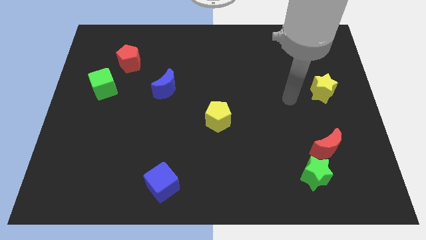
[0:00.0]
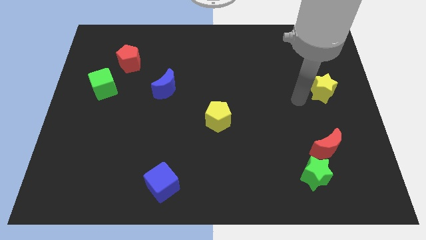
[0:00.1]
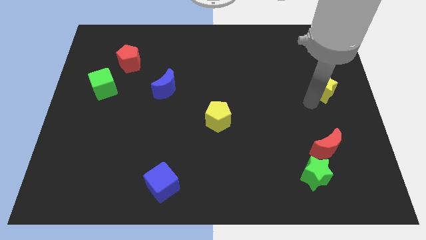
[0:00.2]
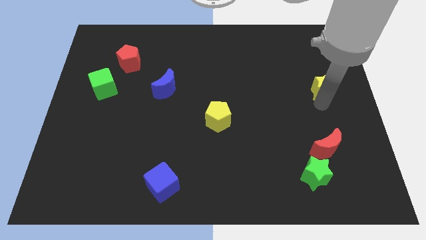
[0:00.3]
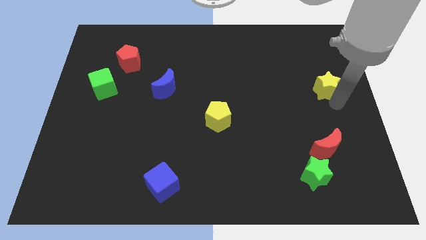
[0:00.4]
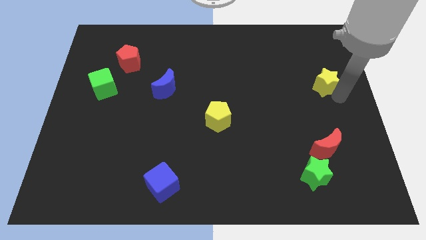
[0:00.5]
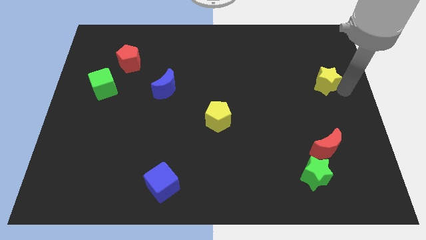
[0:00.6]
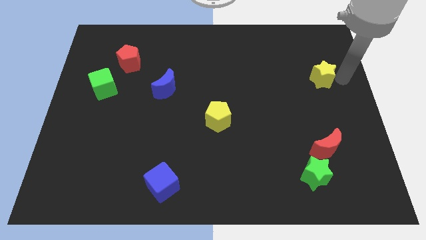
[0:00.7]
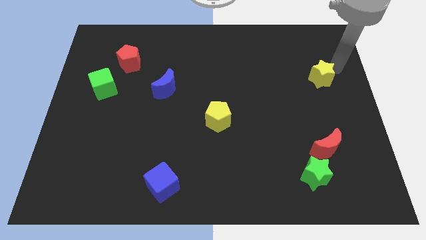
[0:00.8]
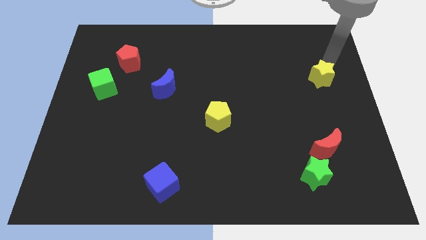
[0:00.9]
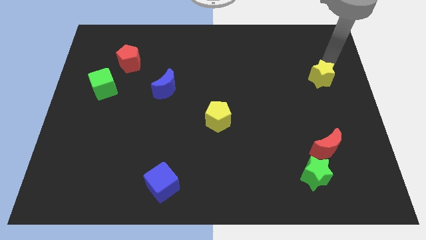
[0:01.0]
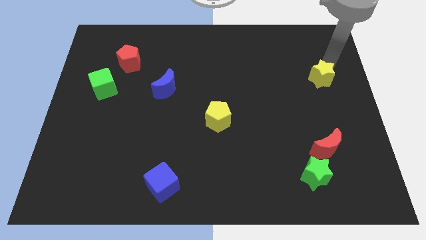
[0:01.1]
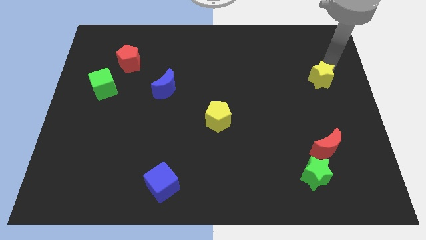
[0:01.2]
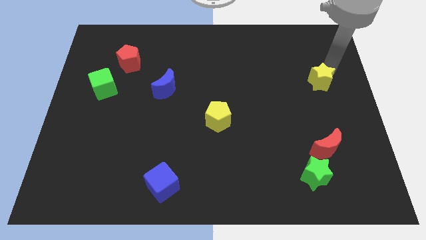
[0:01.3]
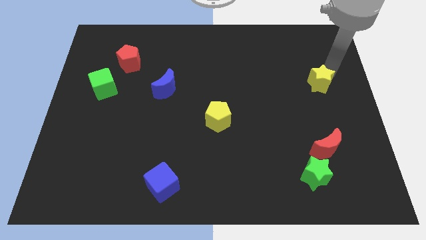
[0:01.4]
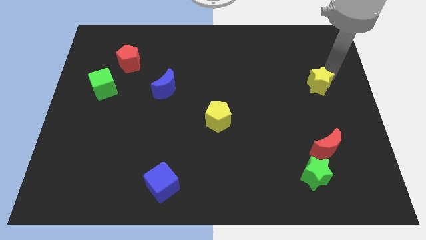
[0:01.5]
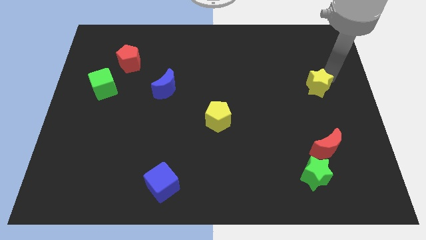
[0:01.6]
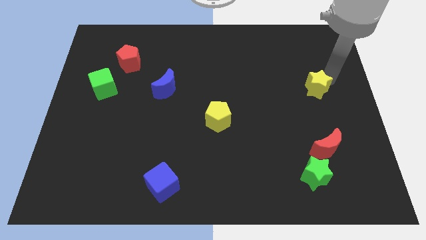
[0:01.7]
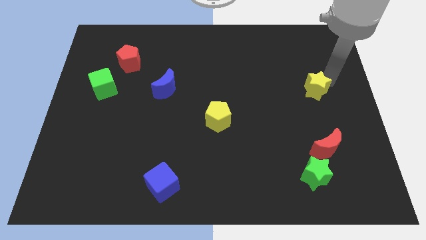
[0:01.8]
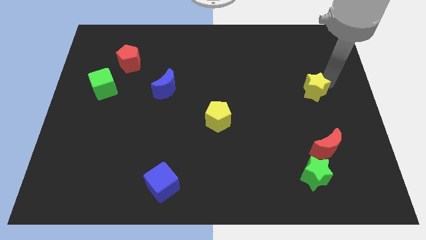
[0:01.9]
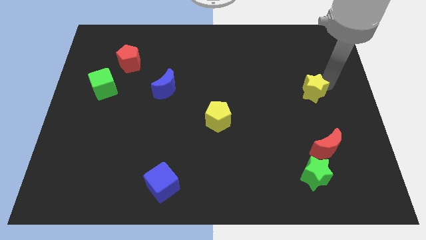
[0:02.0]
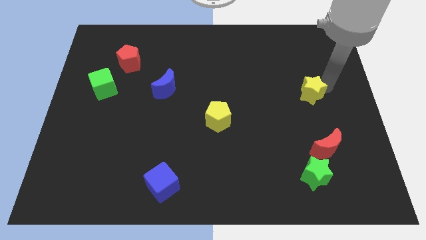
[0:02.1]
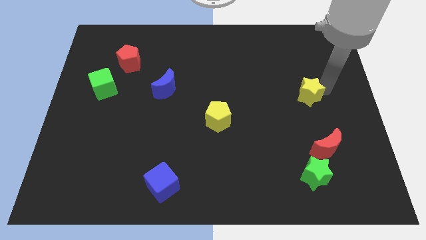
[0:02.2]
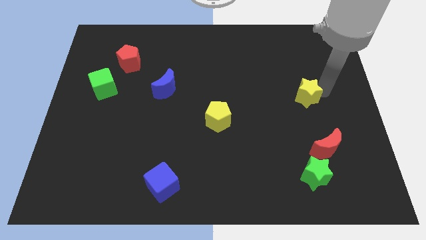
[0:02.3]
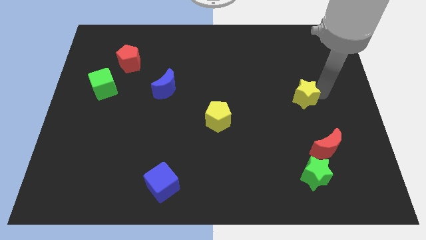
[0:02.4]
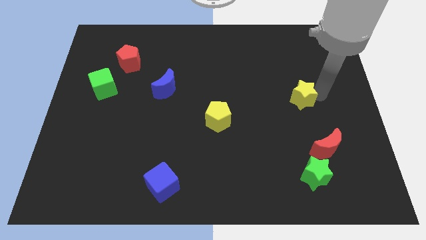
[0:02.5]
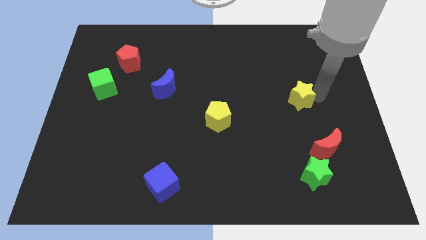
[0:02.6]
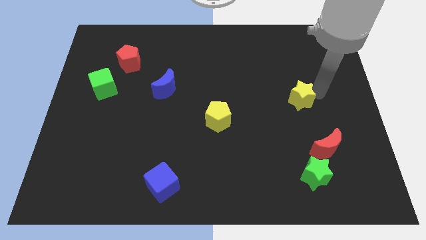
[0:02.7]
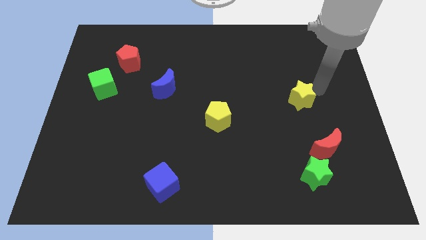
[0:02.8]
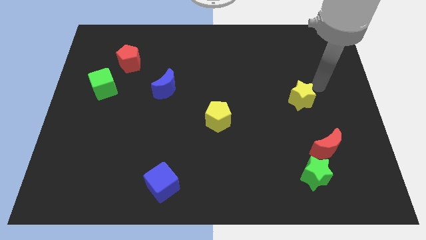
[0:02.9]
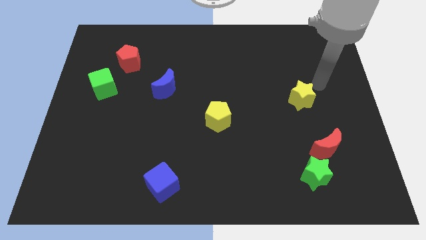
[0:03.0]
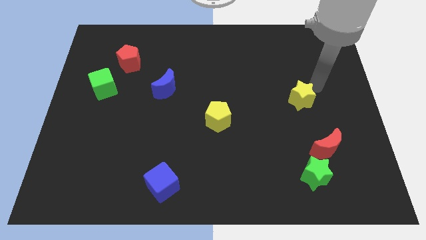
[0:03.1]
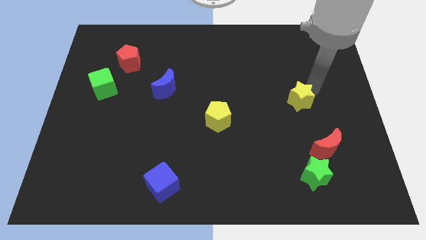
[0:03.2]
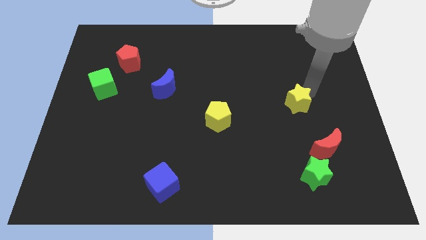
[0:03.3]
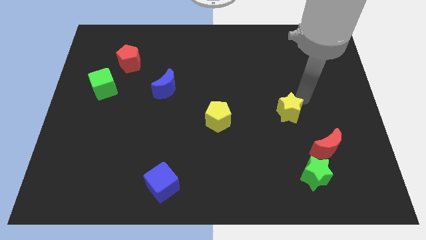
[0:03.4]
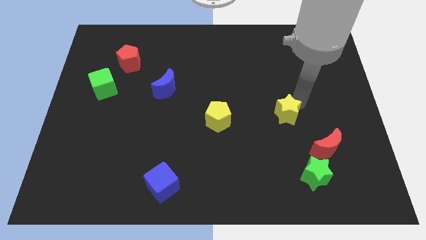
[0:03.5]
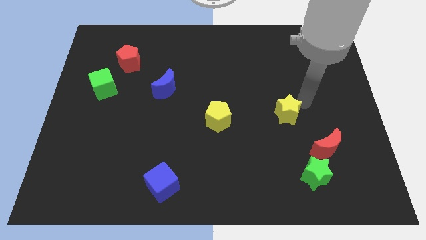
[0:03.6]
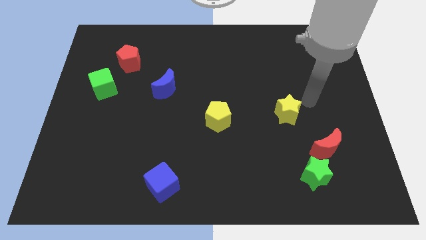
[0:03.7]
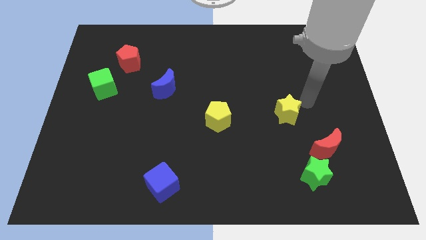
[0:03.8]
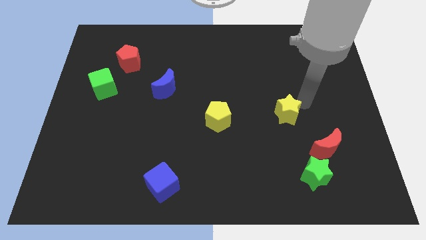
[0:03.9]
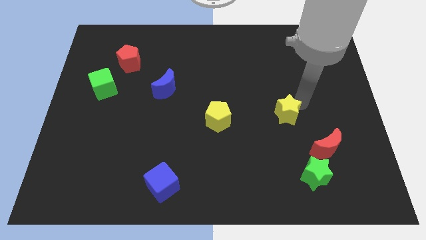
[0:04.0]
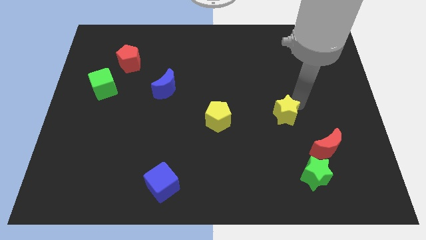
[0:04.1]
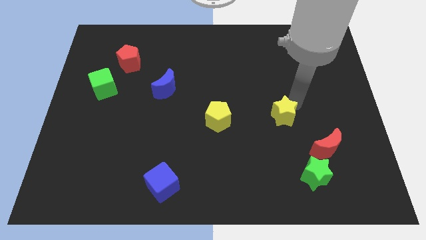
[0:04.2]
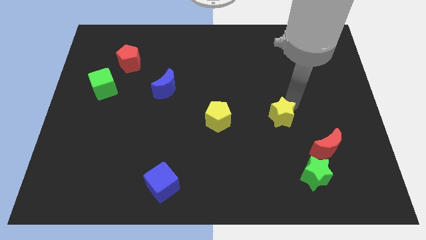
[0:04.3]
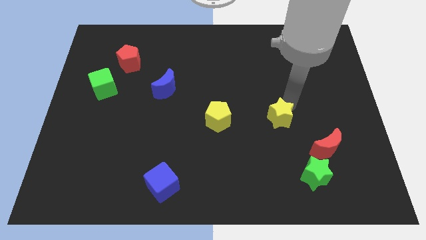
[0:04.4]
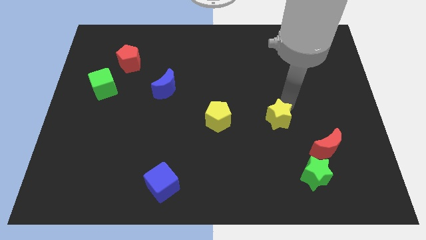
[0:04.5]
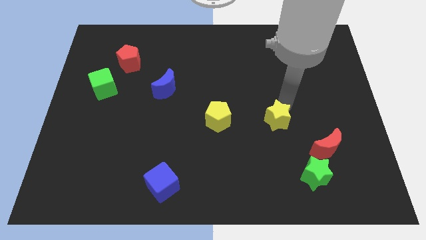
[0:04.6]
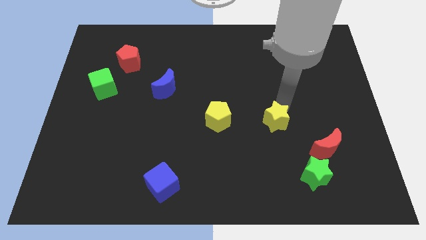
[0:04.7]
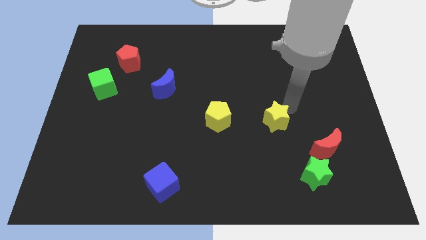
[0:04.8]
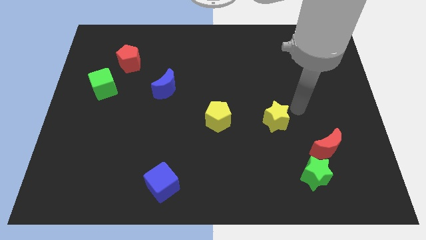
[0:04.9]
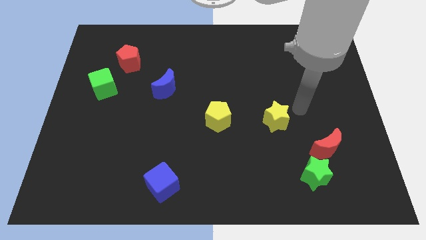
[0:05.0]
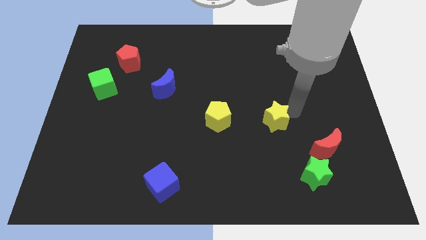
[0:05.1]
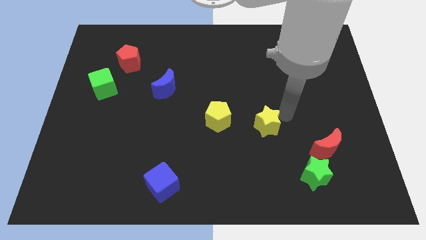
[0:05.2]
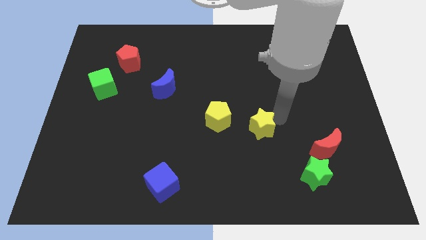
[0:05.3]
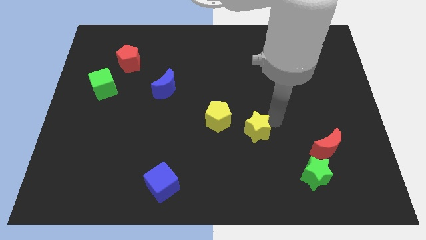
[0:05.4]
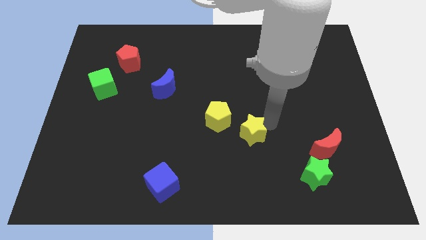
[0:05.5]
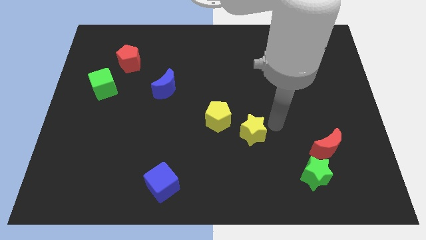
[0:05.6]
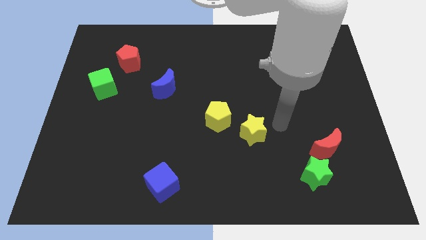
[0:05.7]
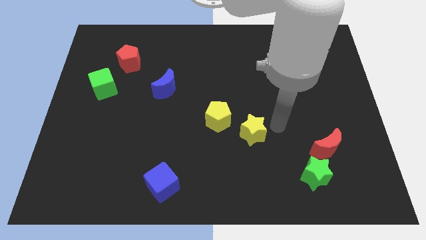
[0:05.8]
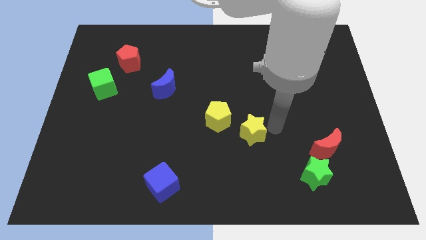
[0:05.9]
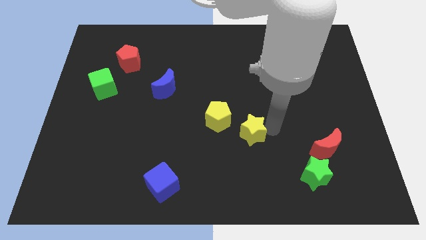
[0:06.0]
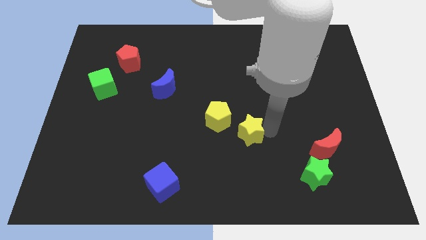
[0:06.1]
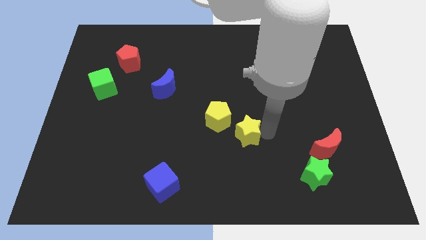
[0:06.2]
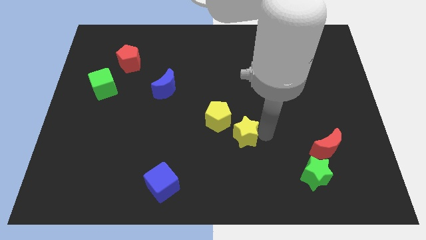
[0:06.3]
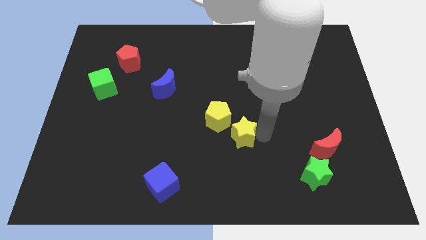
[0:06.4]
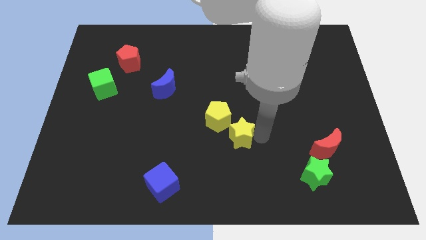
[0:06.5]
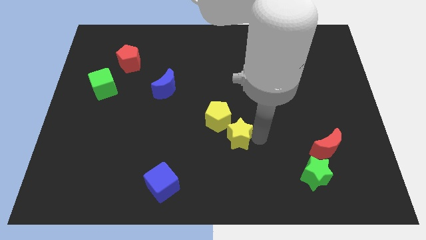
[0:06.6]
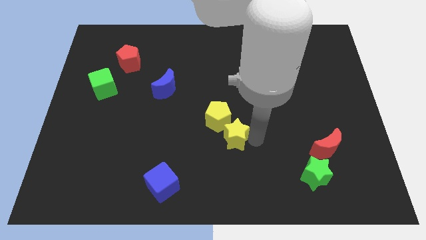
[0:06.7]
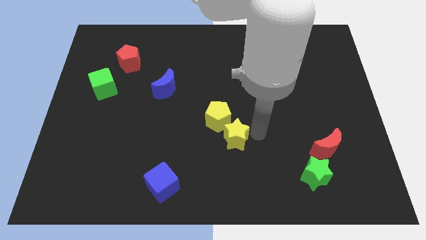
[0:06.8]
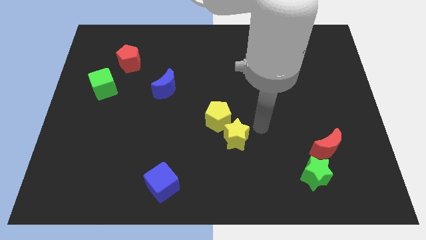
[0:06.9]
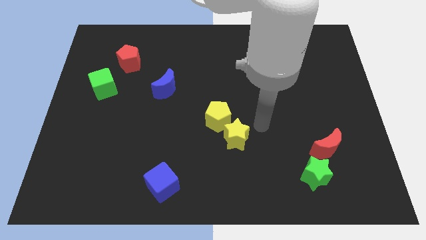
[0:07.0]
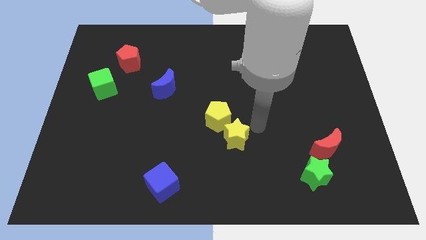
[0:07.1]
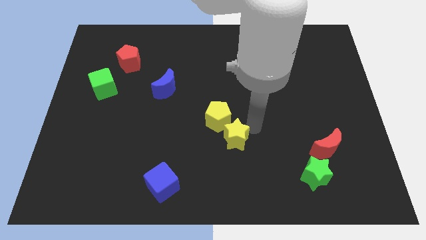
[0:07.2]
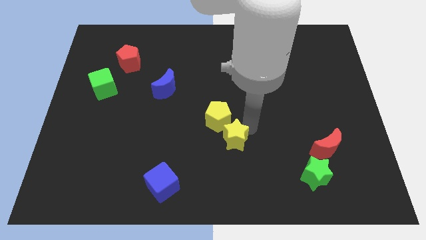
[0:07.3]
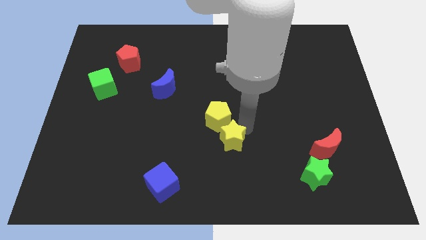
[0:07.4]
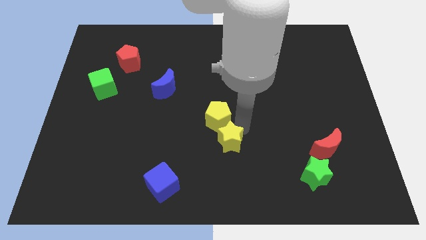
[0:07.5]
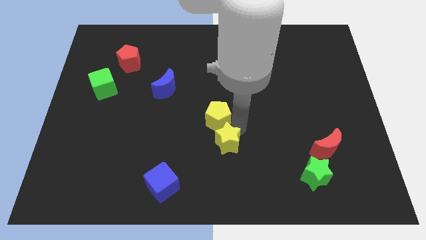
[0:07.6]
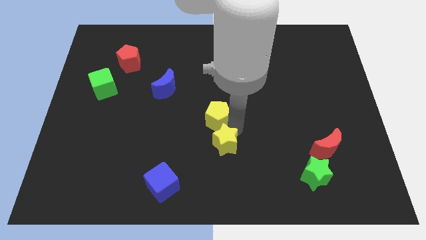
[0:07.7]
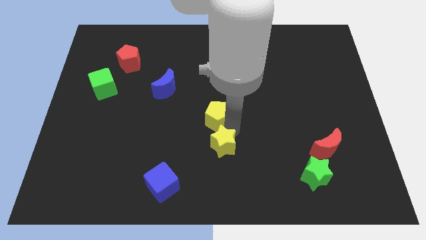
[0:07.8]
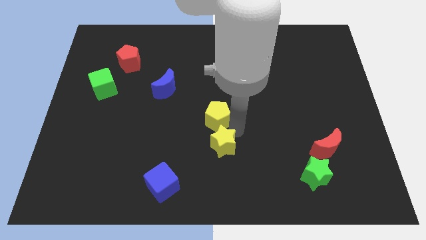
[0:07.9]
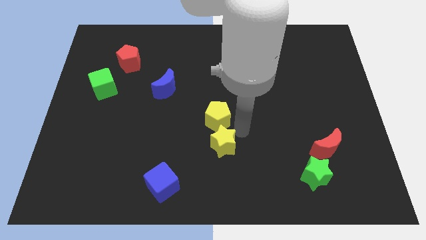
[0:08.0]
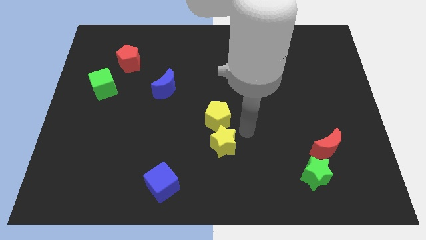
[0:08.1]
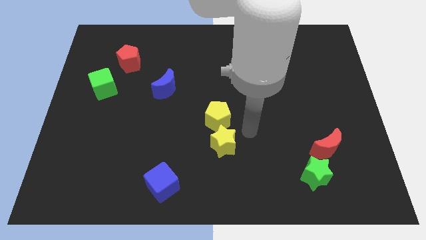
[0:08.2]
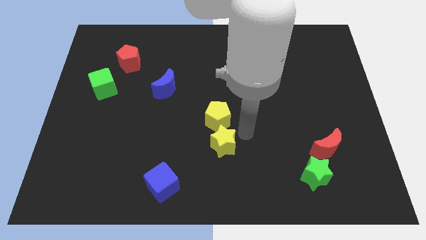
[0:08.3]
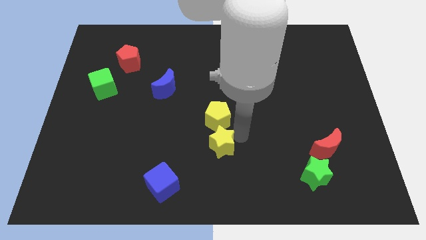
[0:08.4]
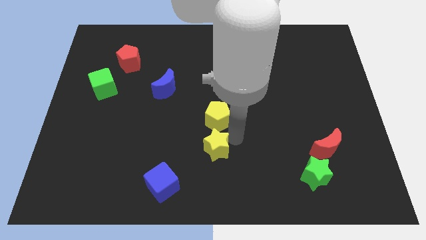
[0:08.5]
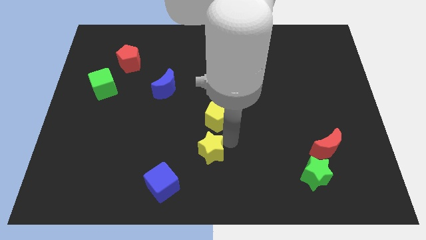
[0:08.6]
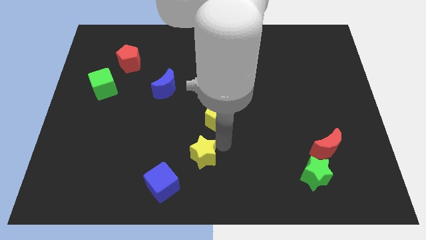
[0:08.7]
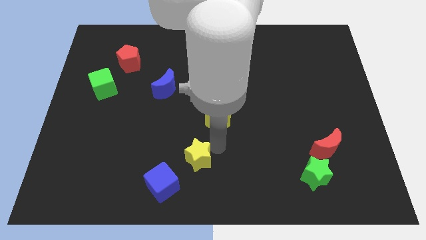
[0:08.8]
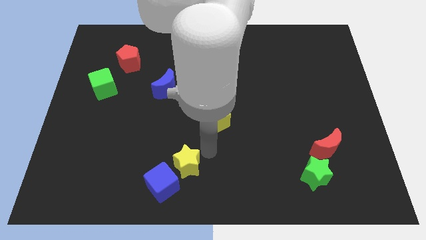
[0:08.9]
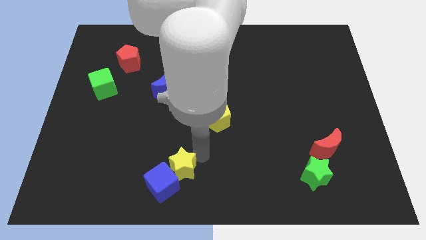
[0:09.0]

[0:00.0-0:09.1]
move the yellow star close to the blue cube
